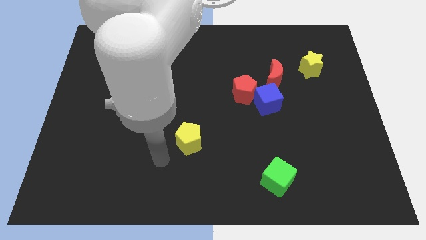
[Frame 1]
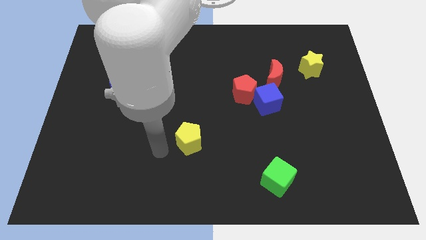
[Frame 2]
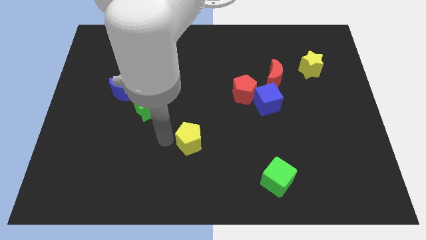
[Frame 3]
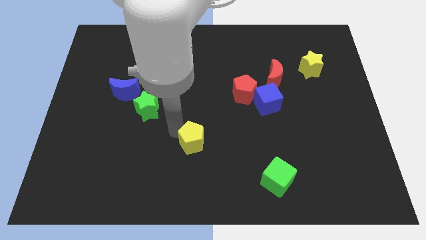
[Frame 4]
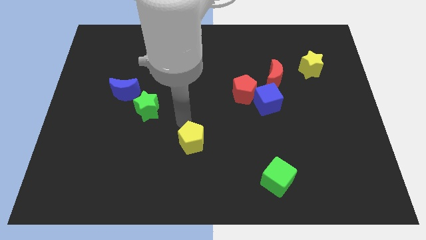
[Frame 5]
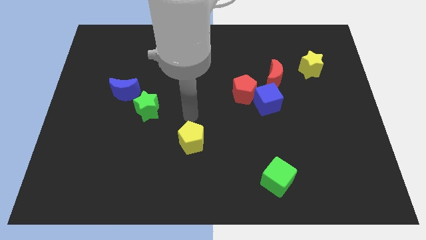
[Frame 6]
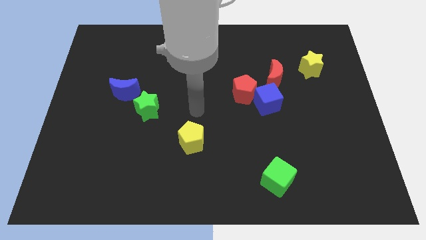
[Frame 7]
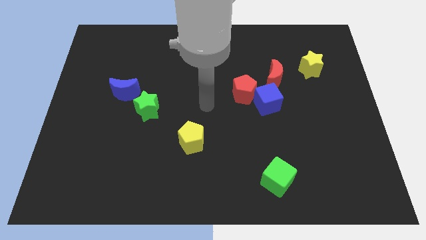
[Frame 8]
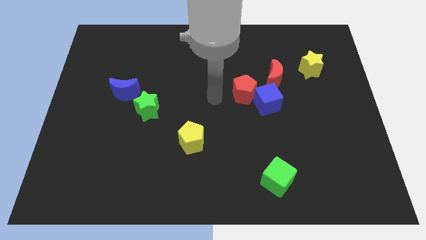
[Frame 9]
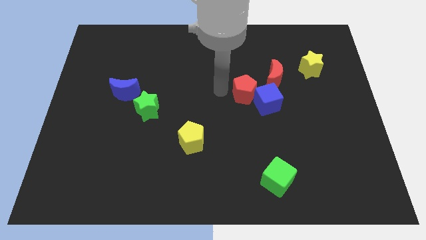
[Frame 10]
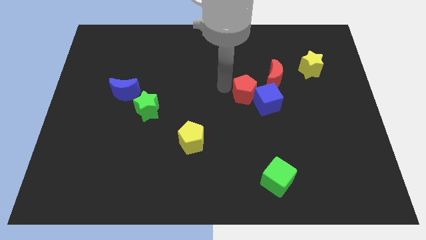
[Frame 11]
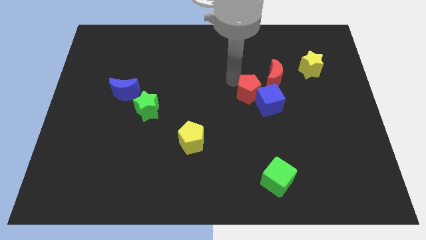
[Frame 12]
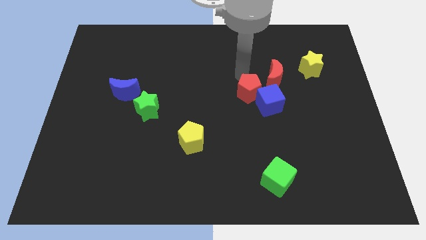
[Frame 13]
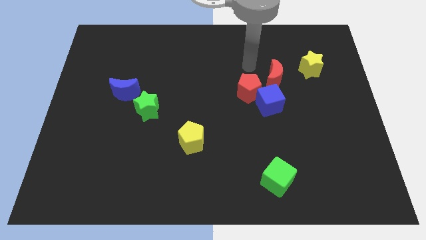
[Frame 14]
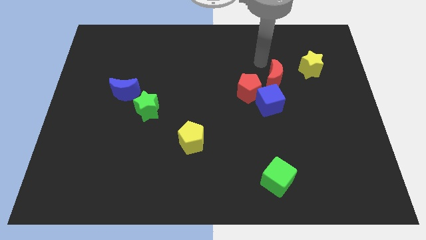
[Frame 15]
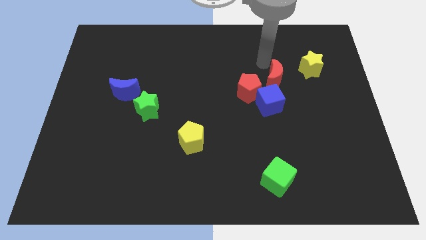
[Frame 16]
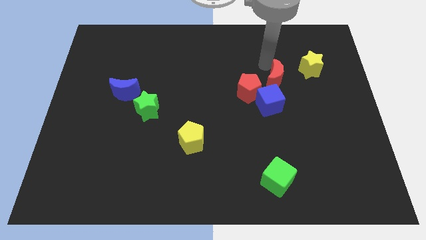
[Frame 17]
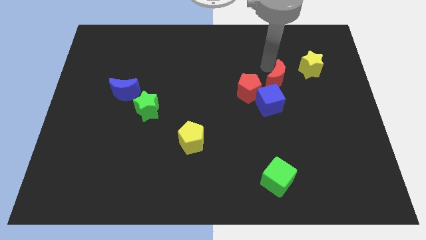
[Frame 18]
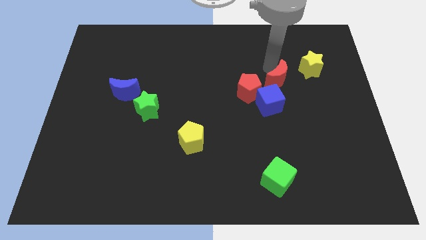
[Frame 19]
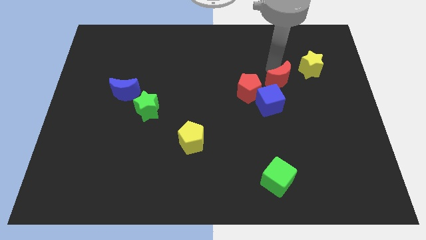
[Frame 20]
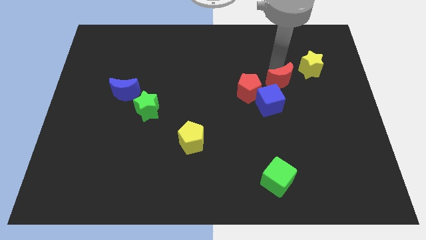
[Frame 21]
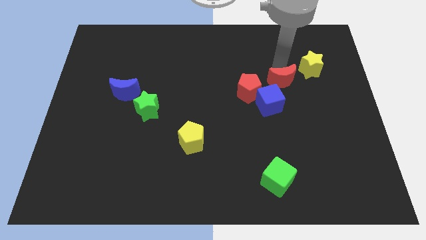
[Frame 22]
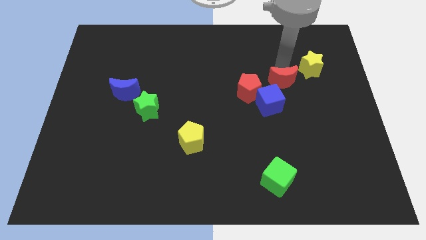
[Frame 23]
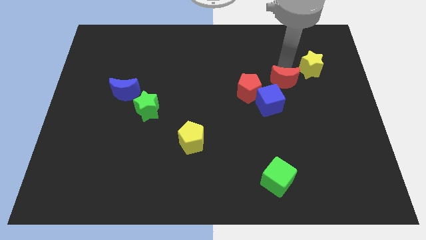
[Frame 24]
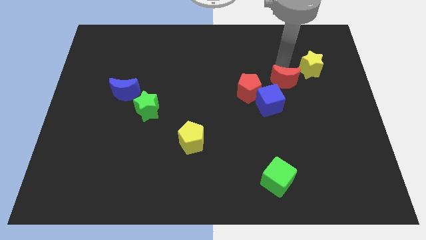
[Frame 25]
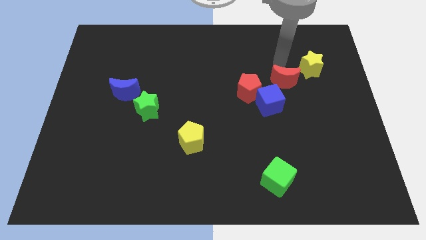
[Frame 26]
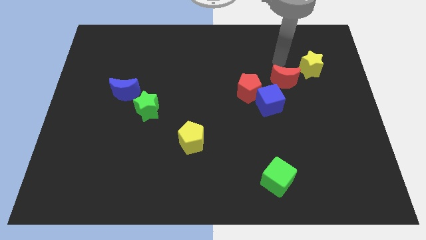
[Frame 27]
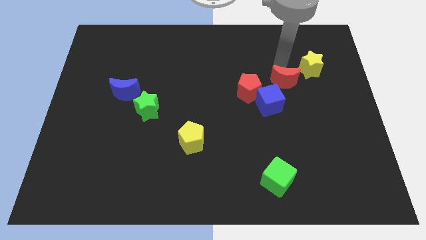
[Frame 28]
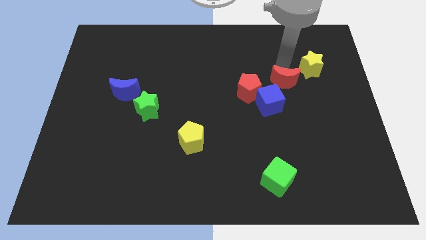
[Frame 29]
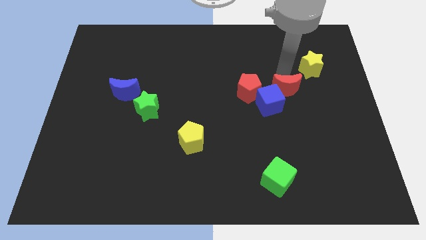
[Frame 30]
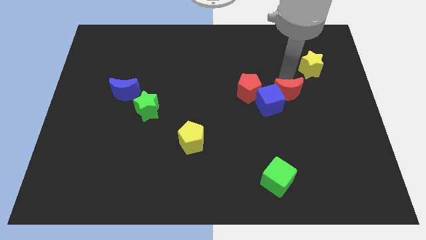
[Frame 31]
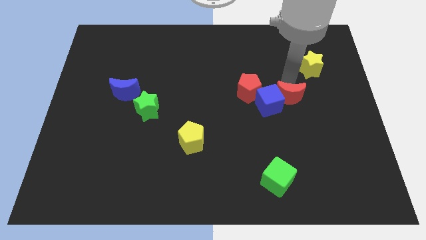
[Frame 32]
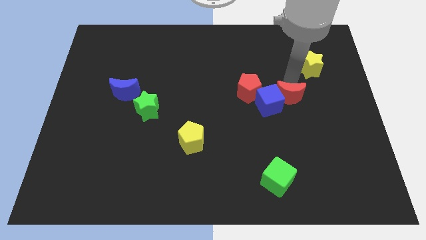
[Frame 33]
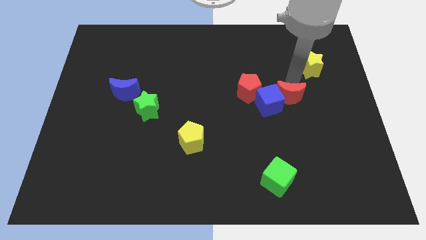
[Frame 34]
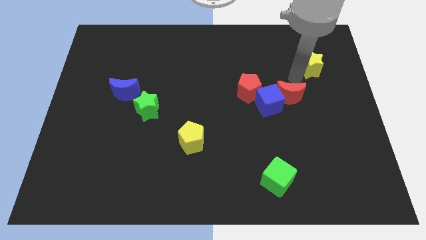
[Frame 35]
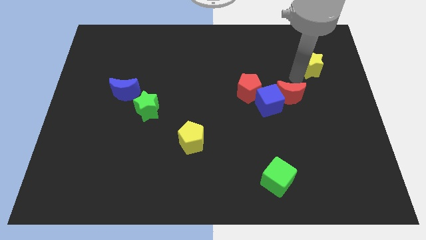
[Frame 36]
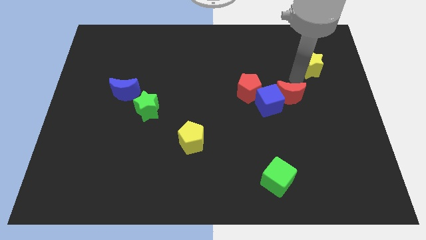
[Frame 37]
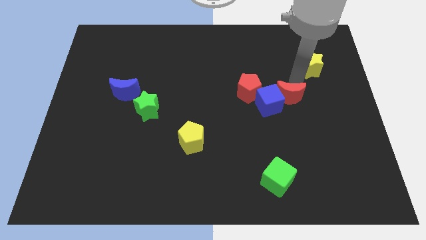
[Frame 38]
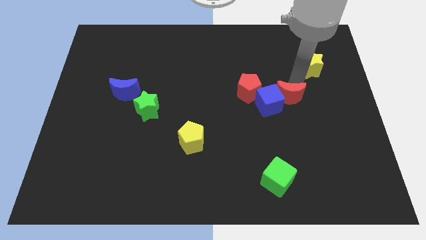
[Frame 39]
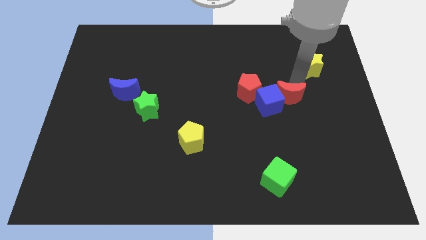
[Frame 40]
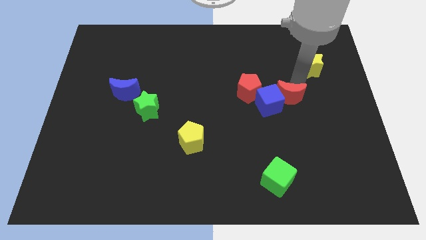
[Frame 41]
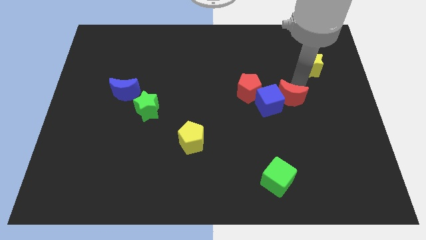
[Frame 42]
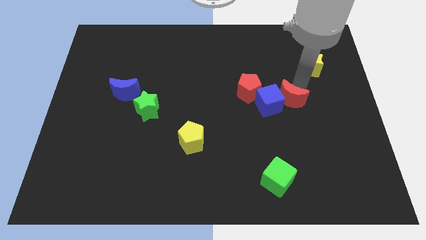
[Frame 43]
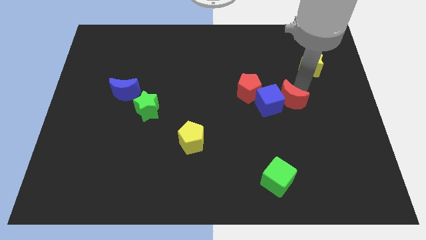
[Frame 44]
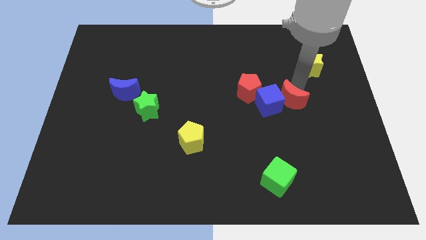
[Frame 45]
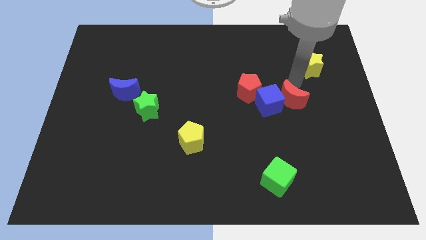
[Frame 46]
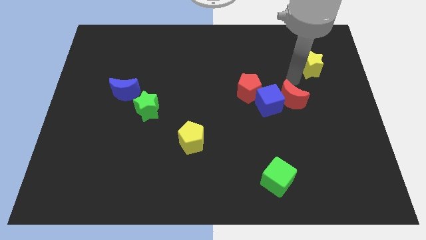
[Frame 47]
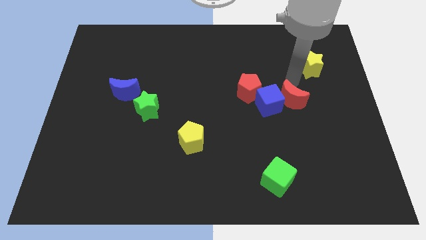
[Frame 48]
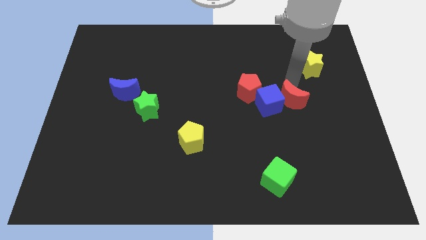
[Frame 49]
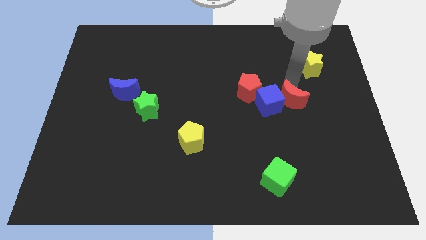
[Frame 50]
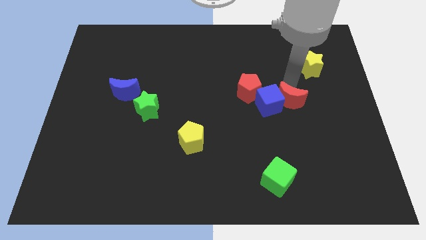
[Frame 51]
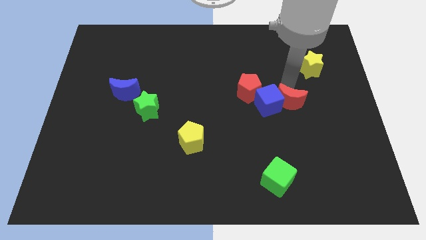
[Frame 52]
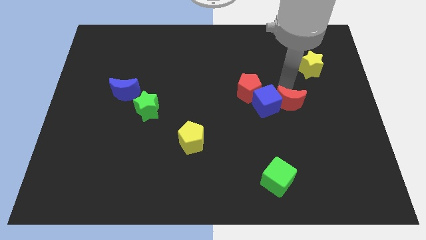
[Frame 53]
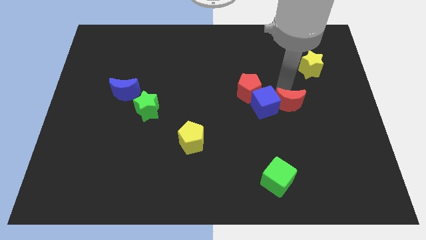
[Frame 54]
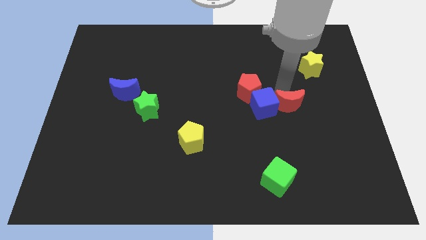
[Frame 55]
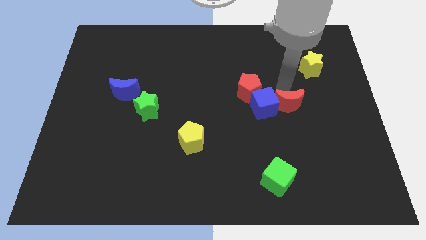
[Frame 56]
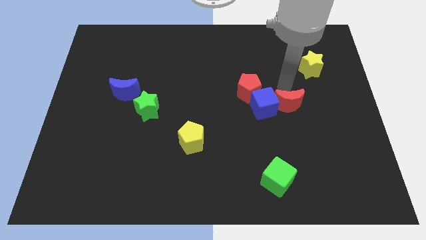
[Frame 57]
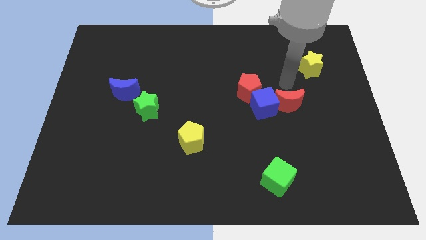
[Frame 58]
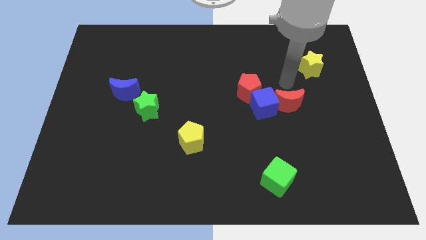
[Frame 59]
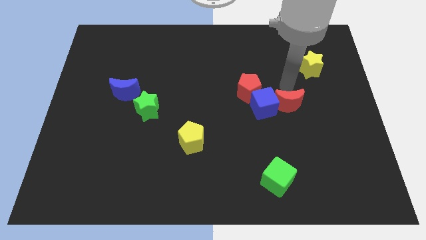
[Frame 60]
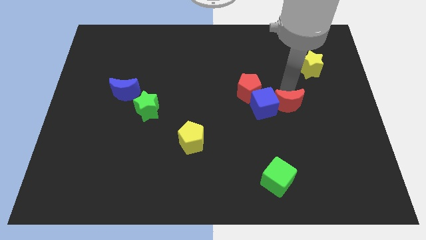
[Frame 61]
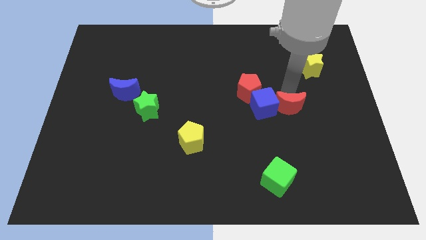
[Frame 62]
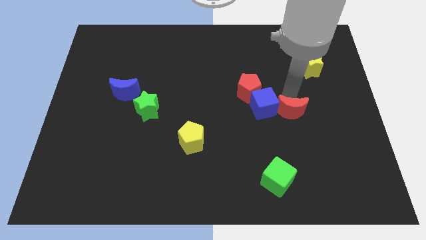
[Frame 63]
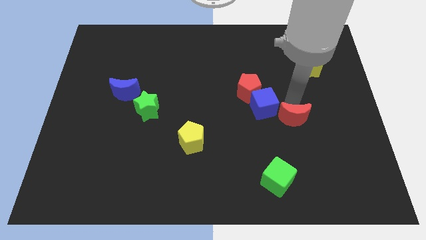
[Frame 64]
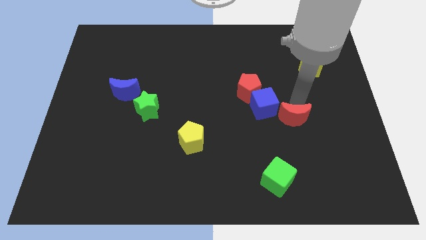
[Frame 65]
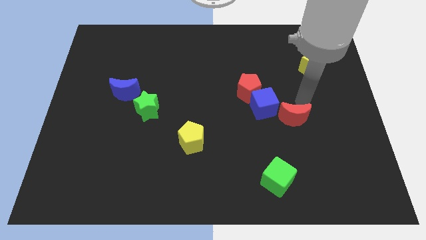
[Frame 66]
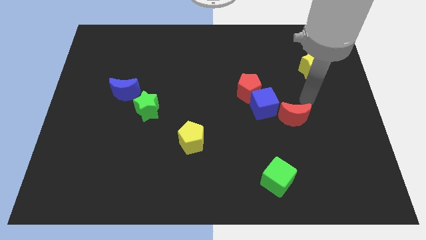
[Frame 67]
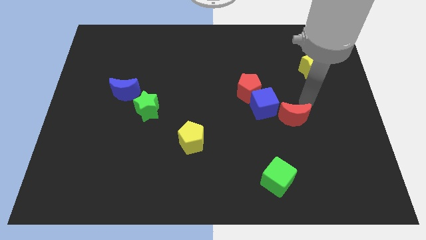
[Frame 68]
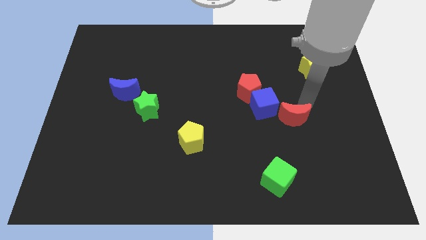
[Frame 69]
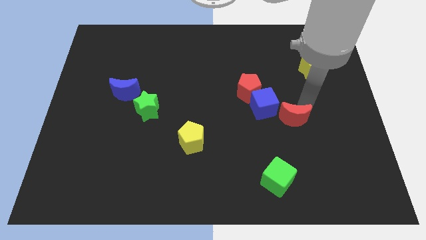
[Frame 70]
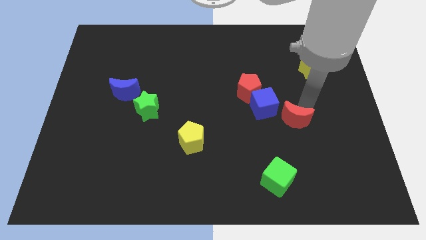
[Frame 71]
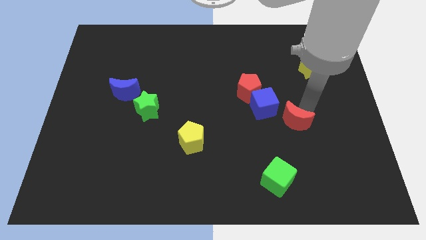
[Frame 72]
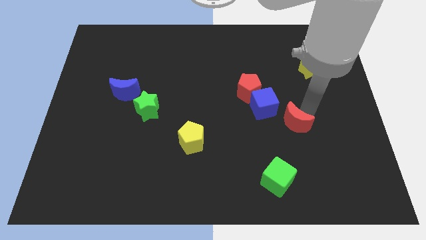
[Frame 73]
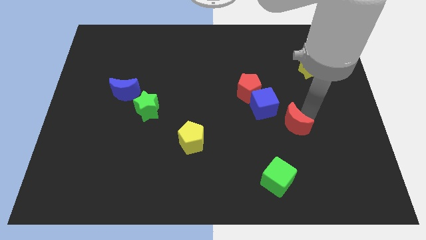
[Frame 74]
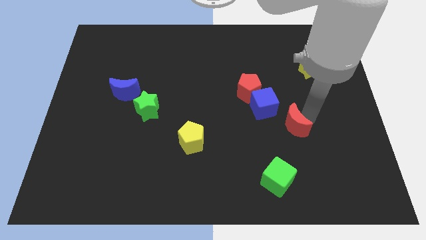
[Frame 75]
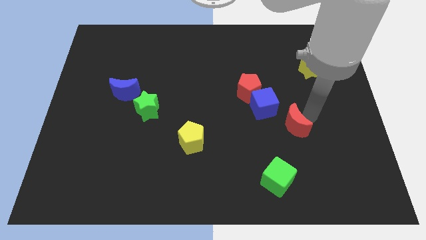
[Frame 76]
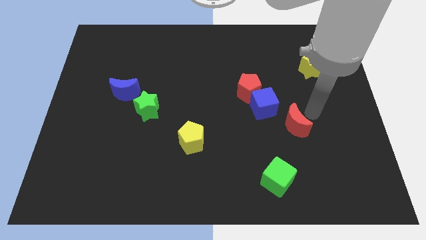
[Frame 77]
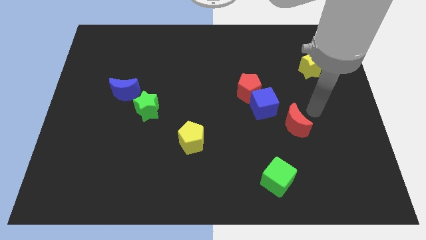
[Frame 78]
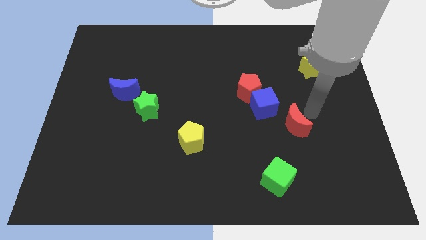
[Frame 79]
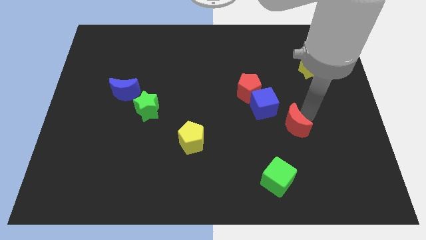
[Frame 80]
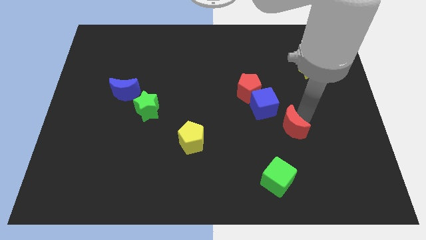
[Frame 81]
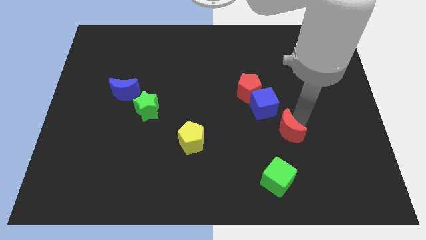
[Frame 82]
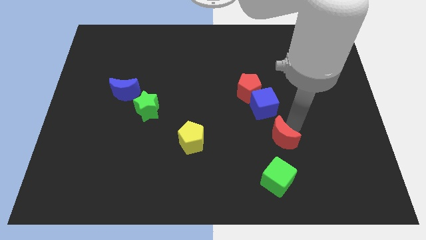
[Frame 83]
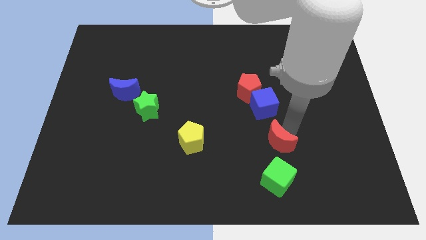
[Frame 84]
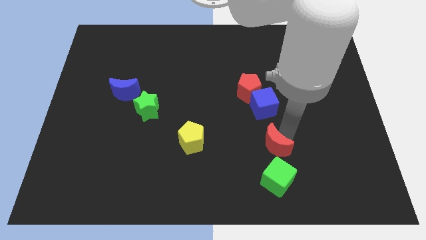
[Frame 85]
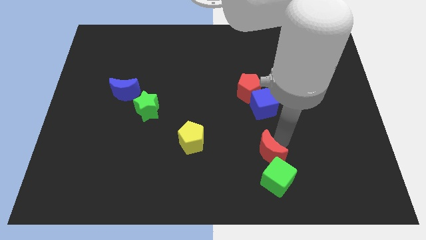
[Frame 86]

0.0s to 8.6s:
put the red moon to the top left side of the green cube
